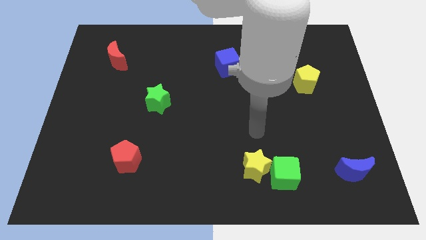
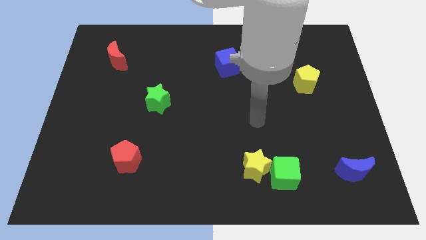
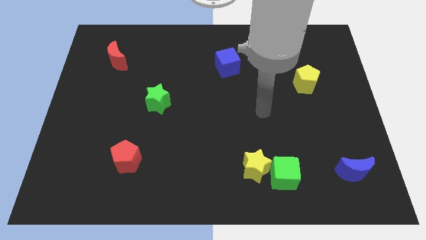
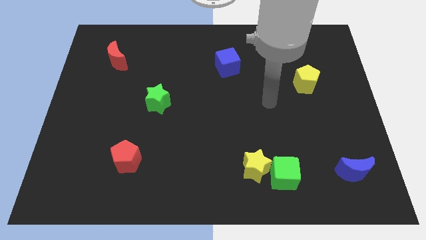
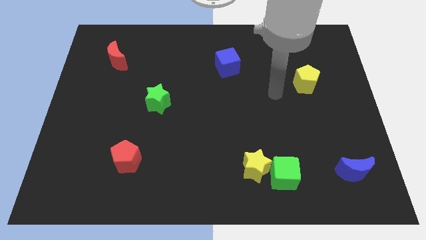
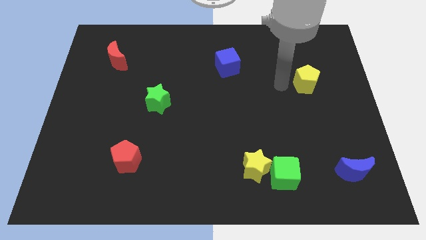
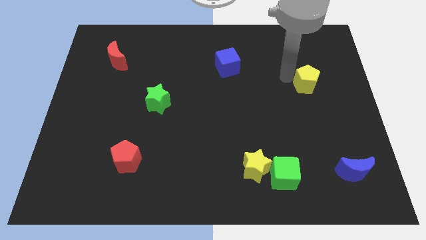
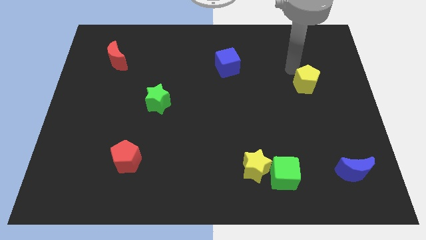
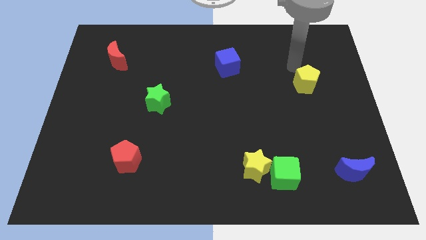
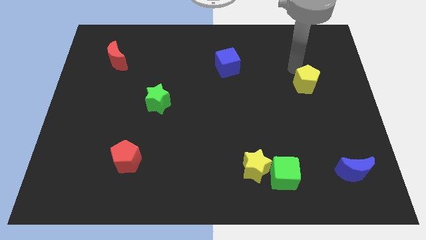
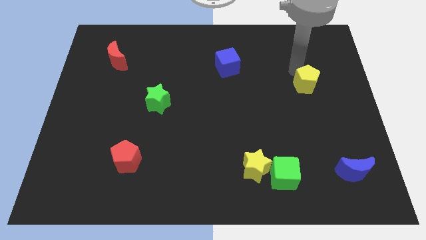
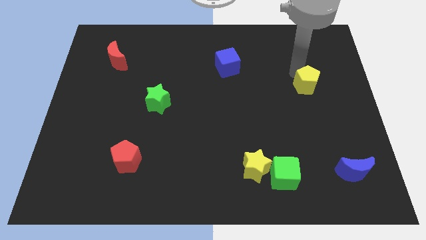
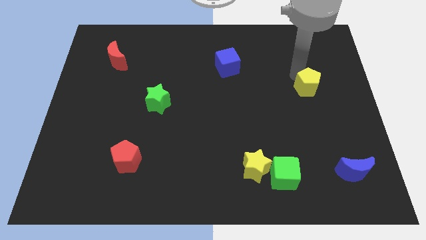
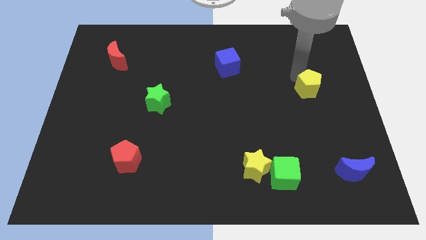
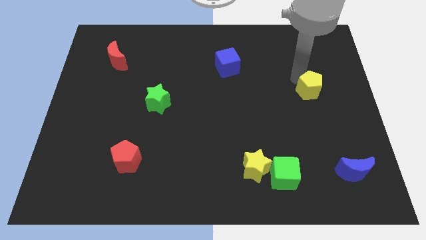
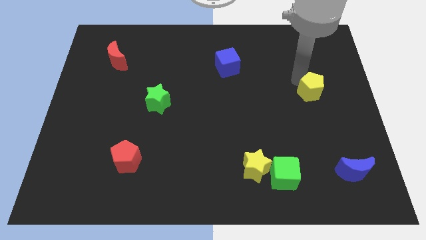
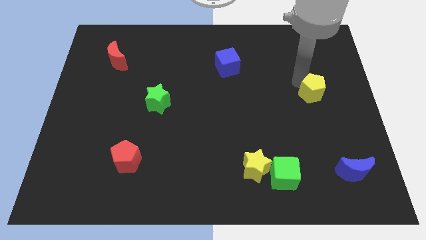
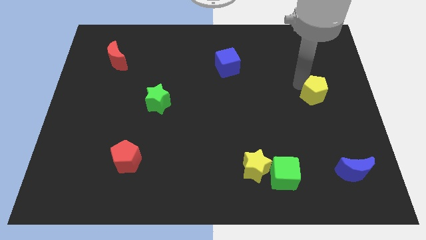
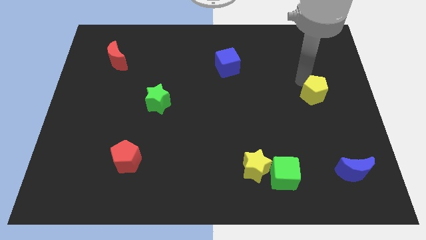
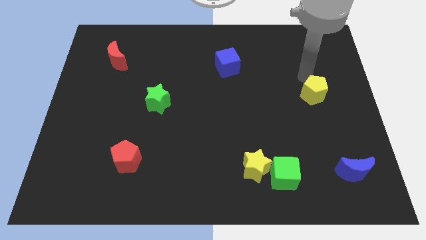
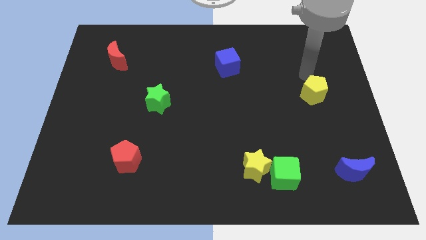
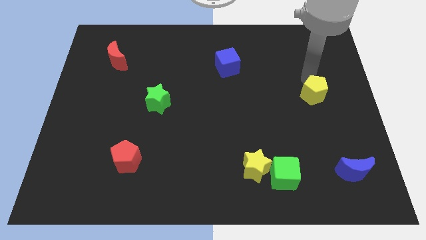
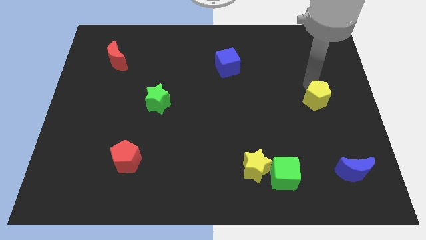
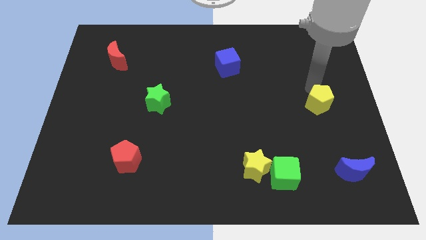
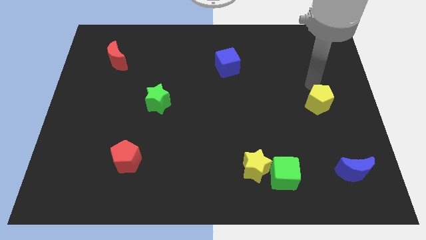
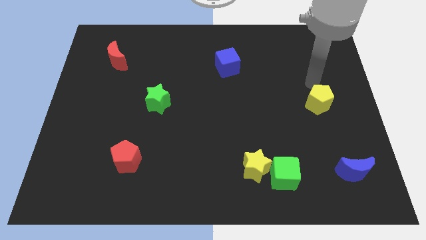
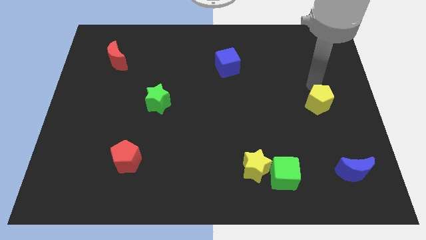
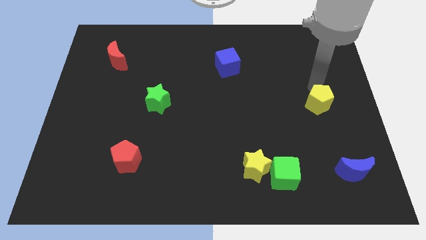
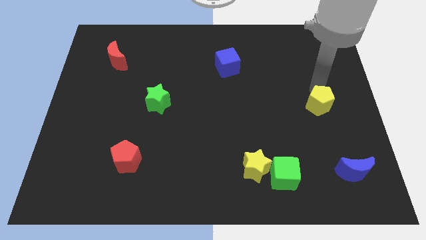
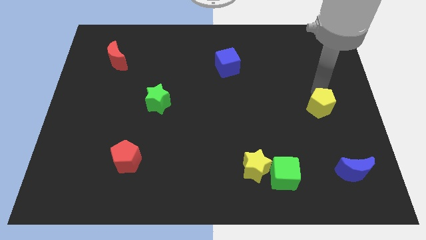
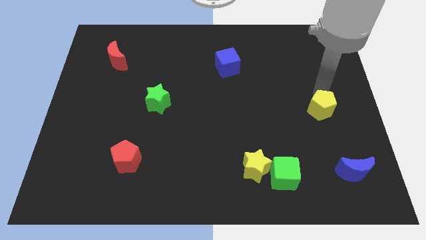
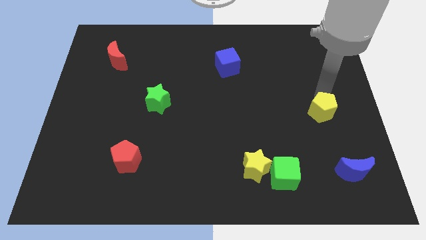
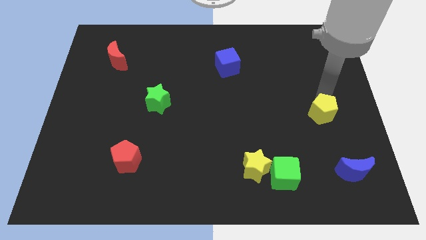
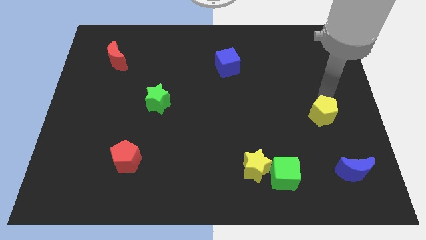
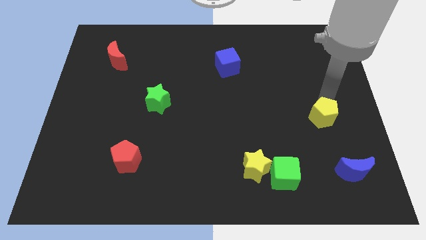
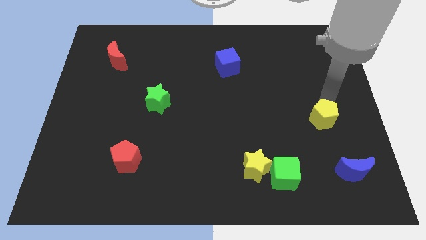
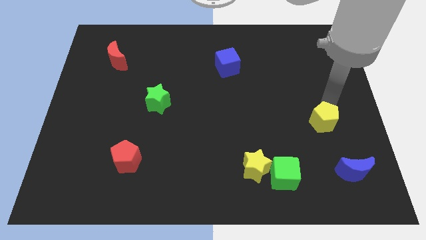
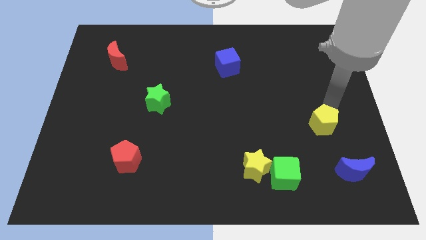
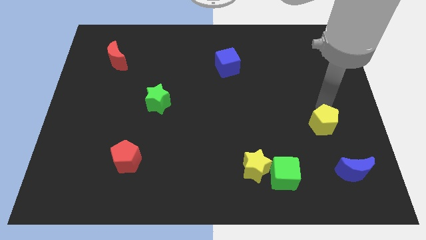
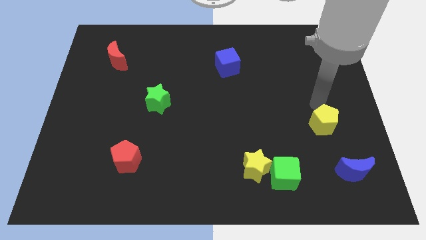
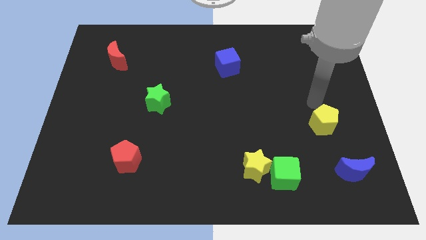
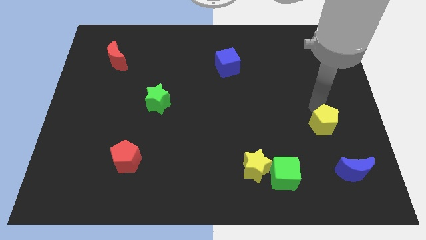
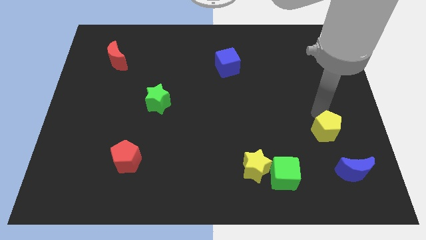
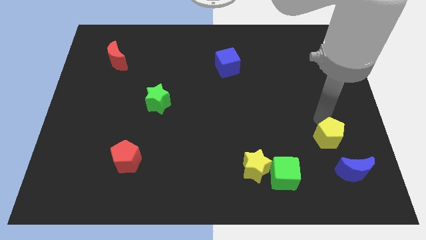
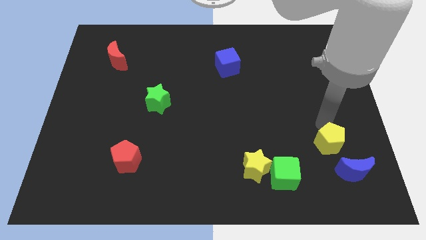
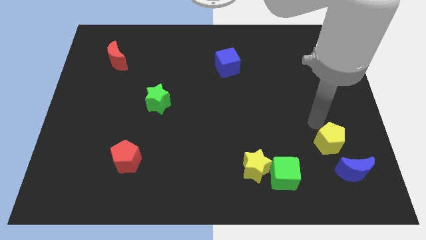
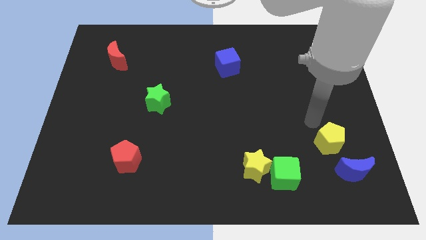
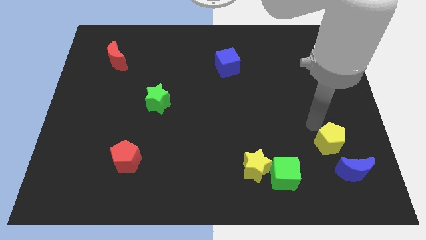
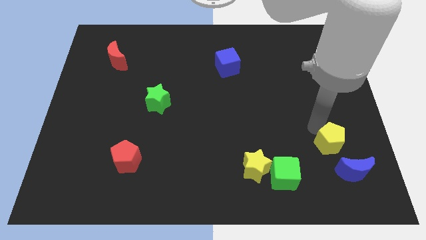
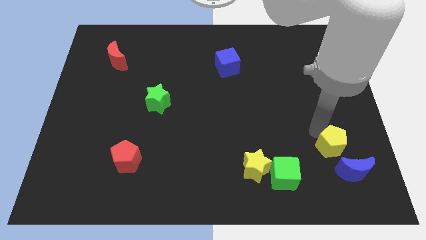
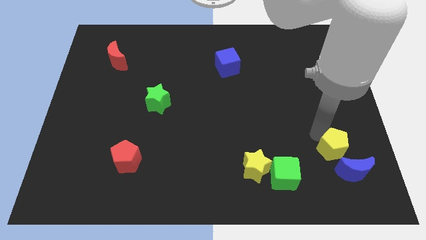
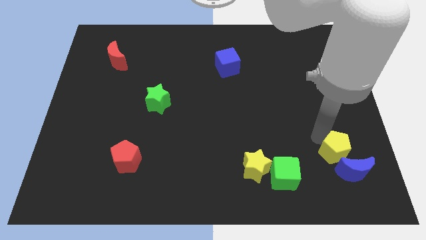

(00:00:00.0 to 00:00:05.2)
push the yellow pentagon to the blue moon

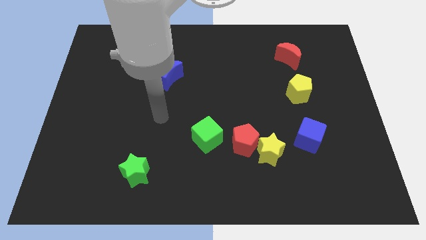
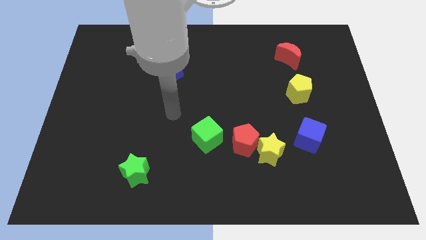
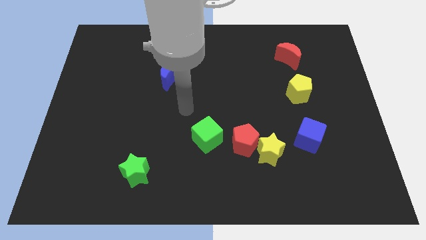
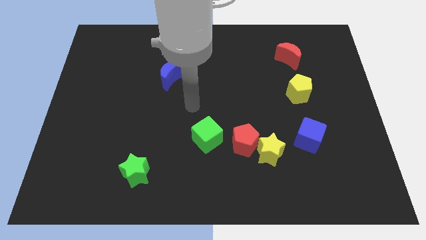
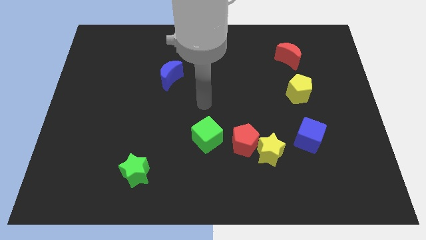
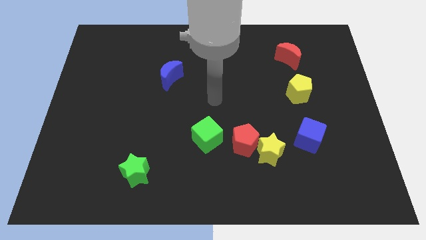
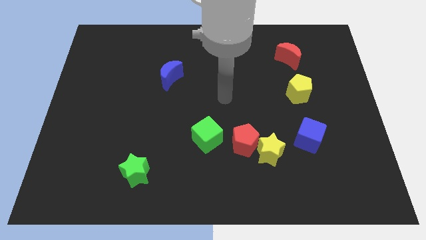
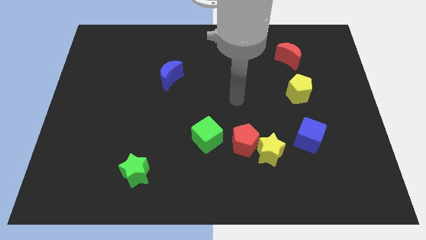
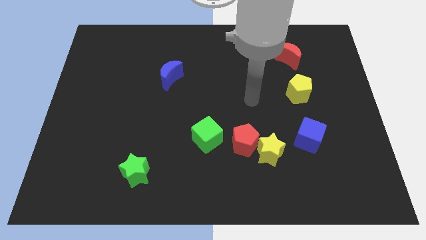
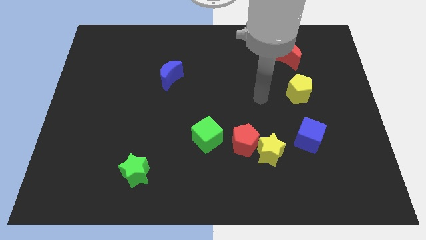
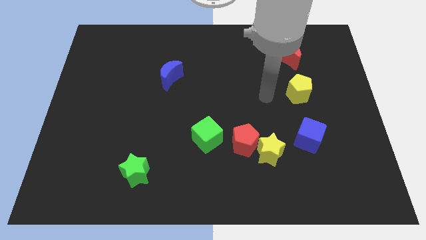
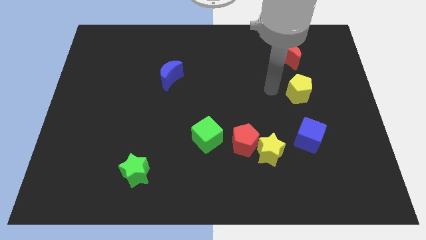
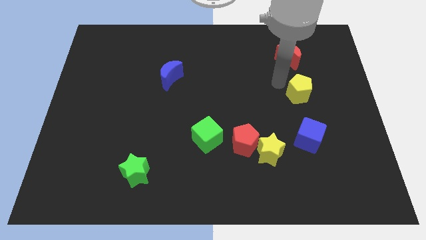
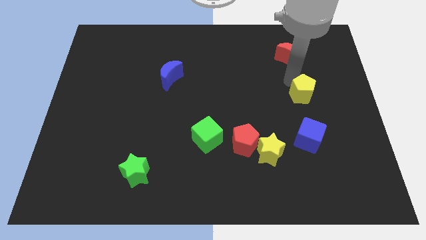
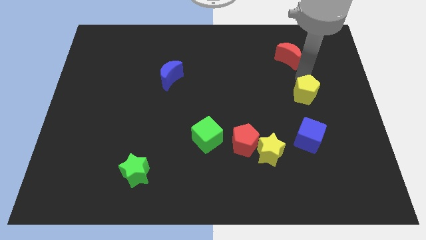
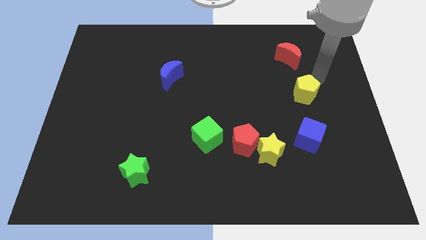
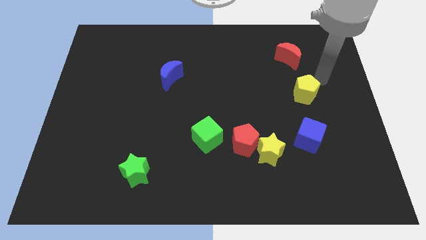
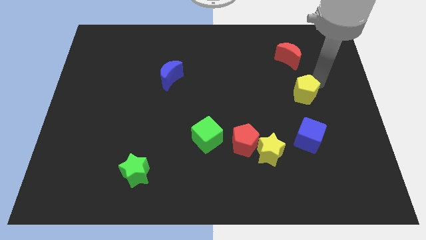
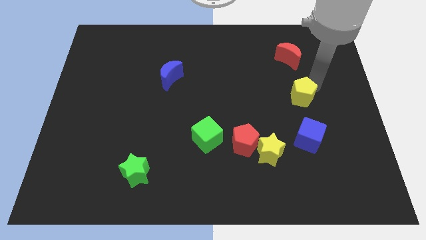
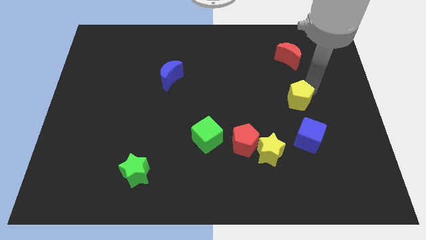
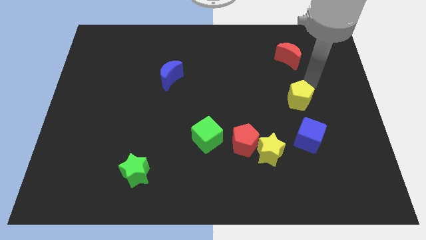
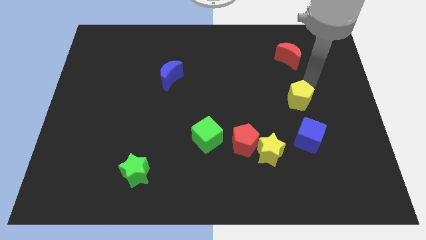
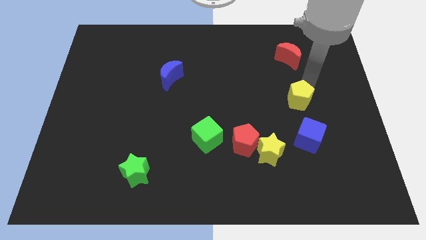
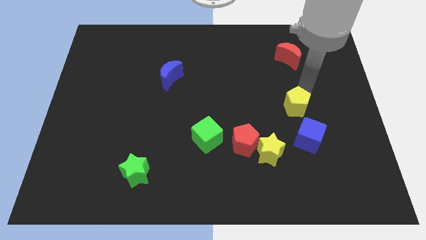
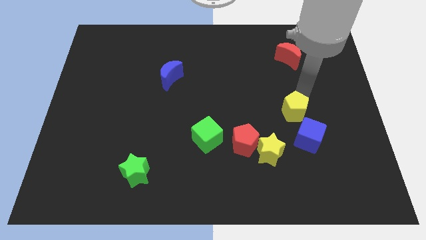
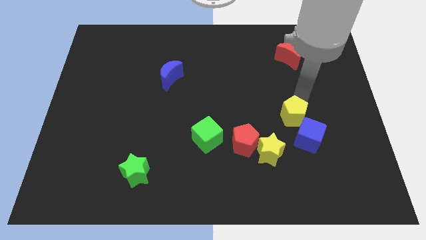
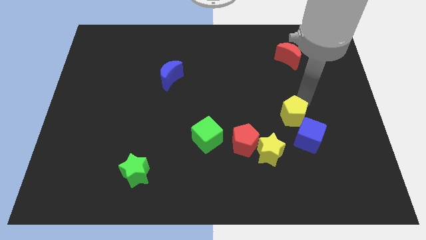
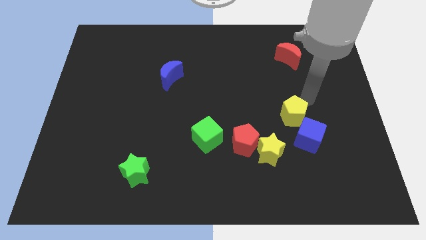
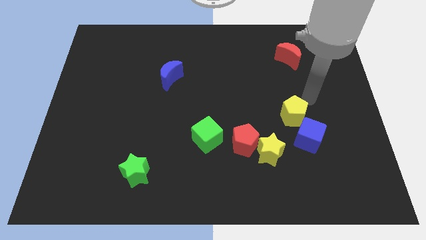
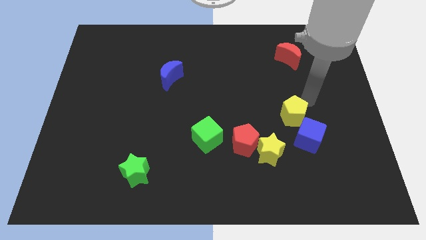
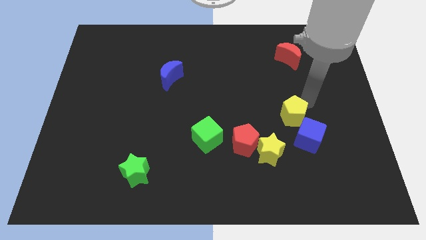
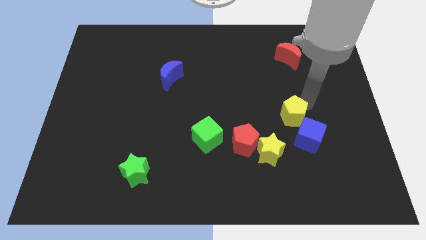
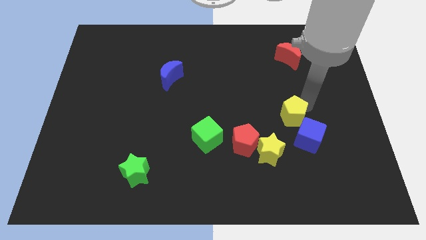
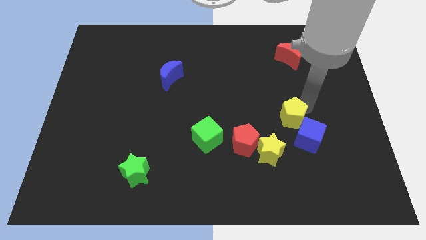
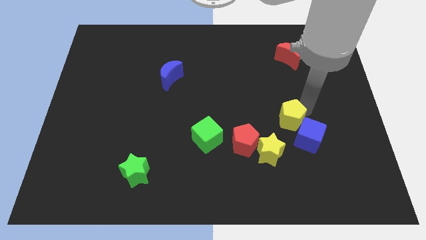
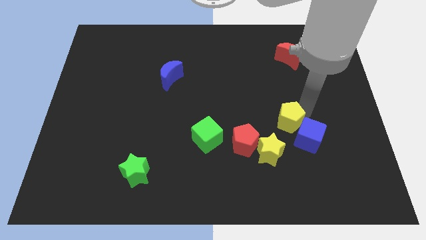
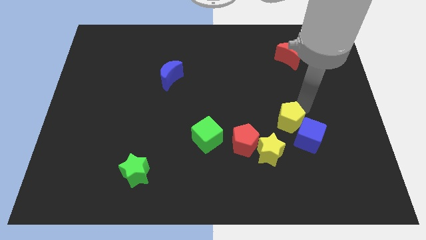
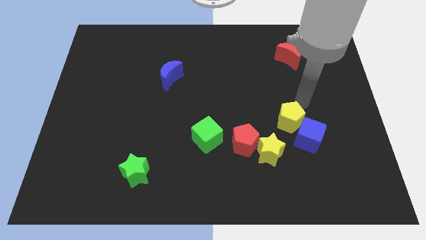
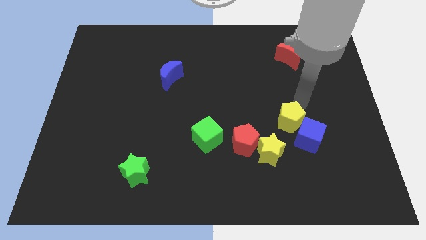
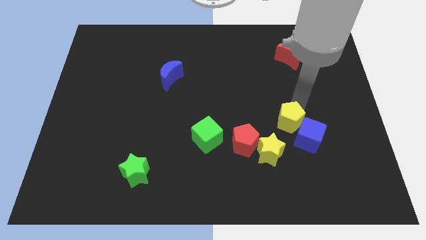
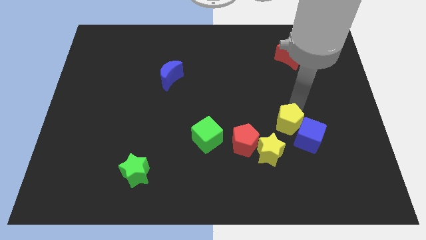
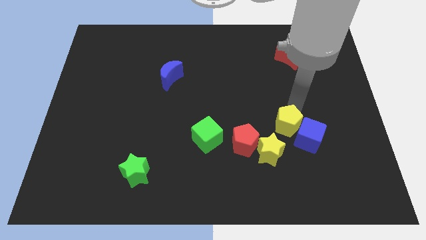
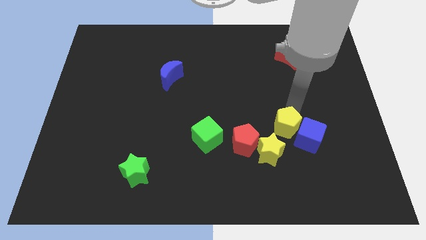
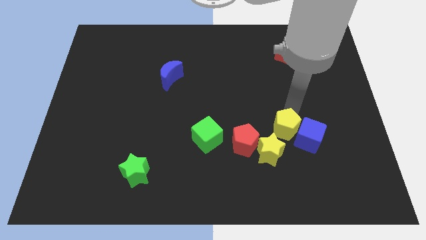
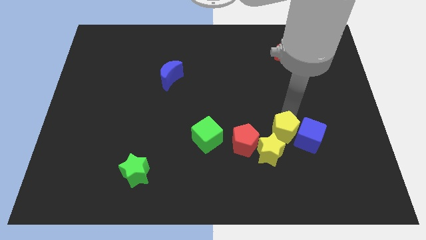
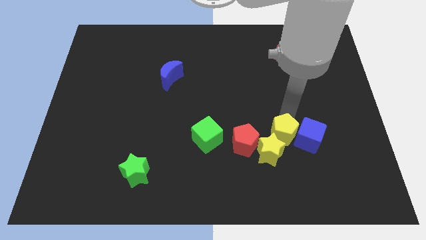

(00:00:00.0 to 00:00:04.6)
push the yellow pentagon next to the yellow star
